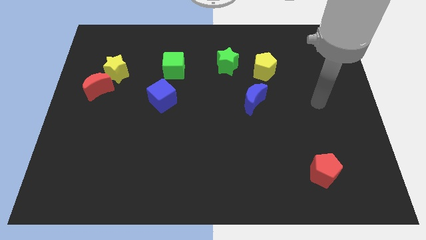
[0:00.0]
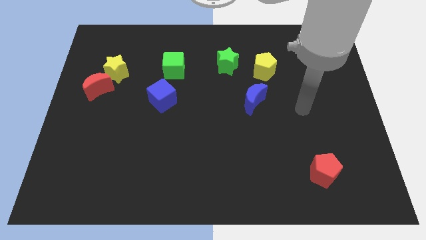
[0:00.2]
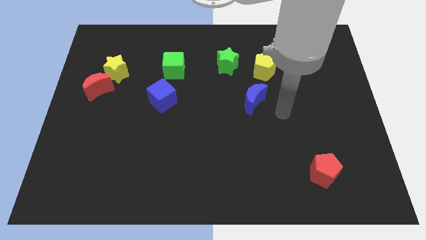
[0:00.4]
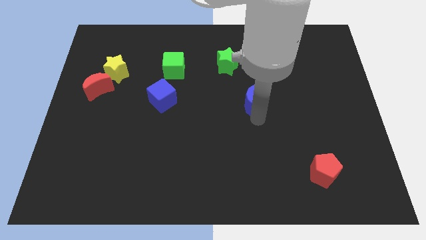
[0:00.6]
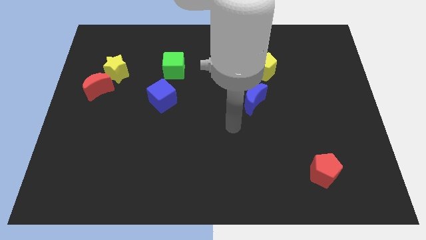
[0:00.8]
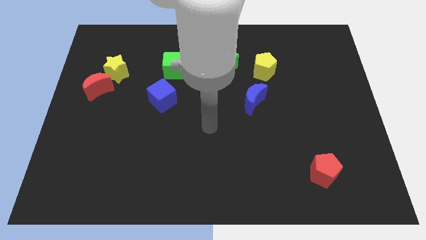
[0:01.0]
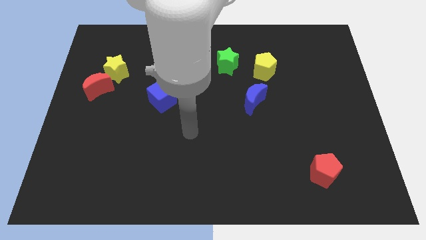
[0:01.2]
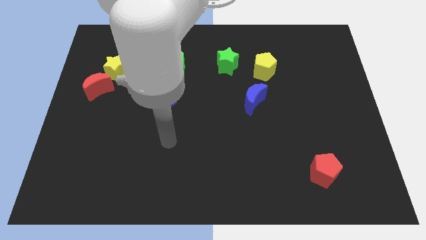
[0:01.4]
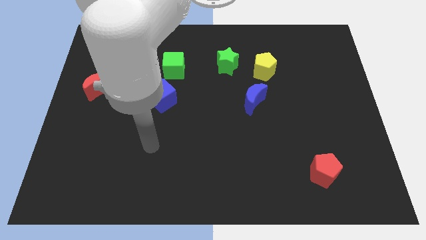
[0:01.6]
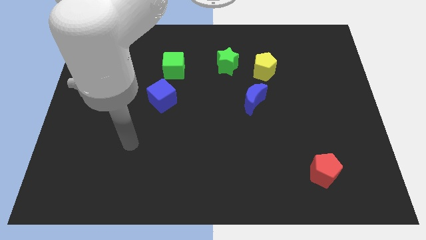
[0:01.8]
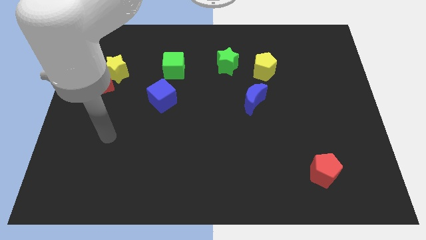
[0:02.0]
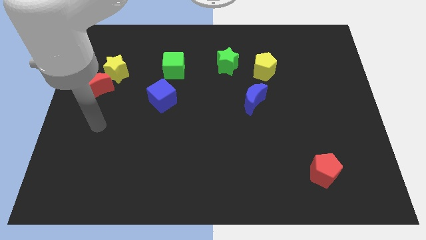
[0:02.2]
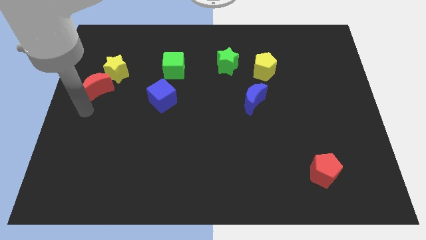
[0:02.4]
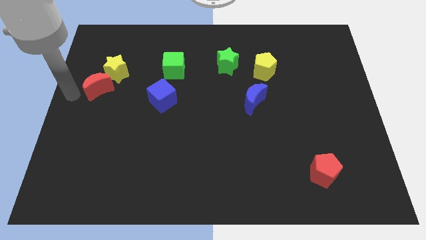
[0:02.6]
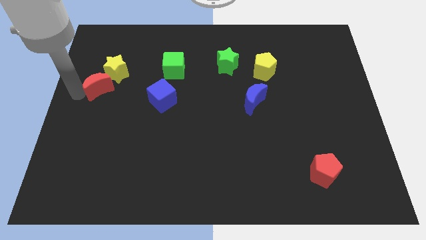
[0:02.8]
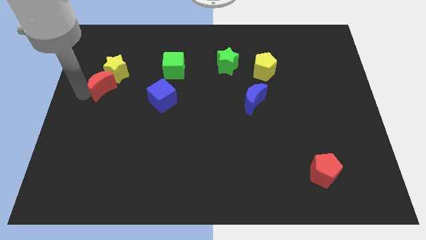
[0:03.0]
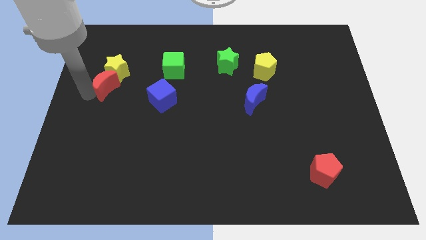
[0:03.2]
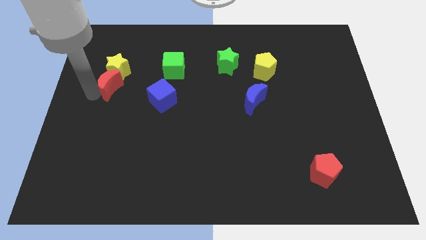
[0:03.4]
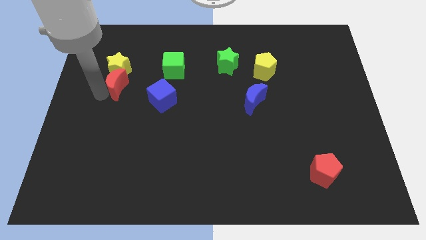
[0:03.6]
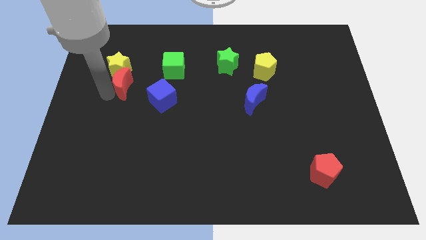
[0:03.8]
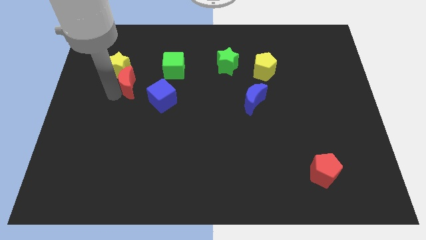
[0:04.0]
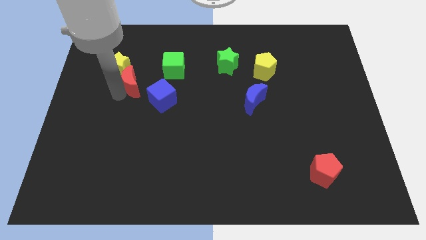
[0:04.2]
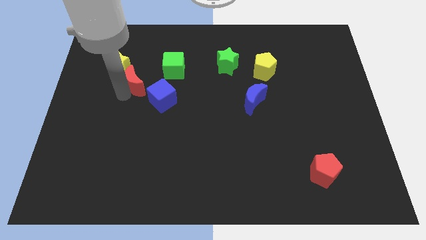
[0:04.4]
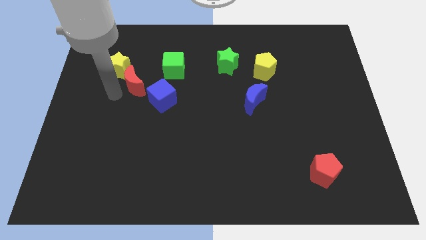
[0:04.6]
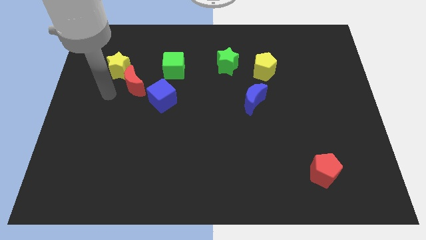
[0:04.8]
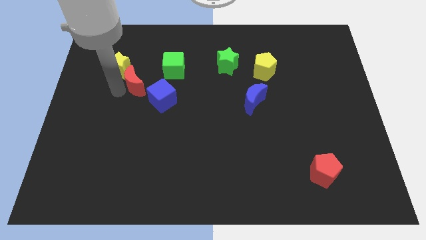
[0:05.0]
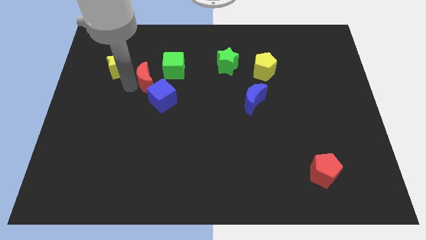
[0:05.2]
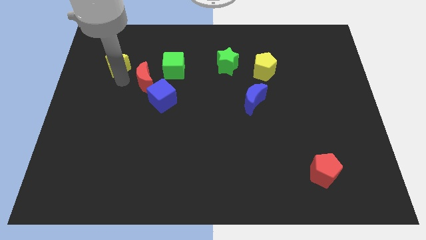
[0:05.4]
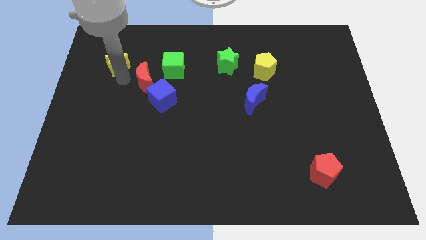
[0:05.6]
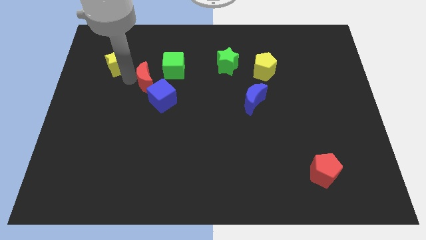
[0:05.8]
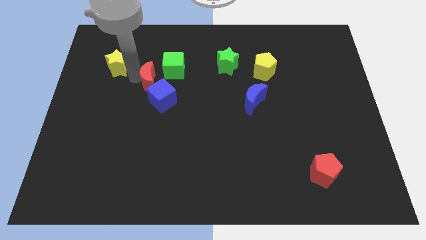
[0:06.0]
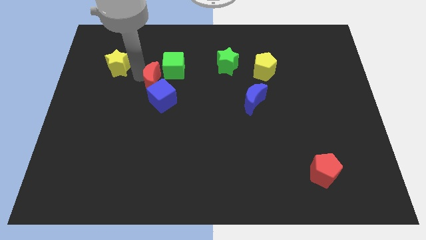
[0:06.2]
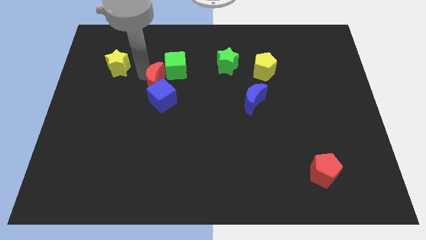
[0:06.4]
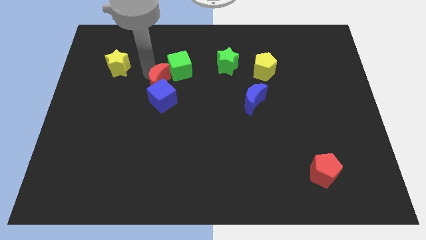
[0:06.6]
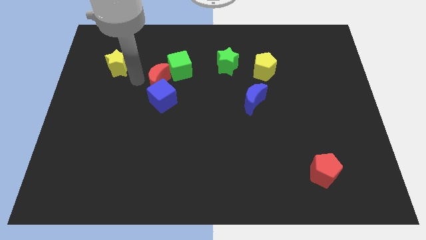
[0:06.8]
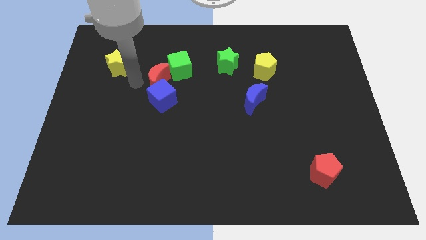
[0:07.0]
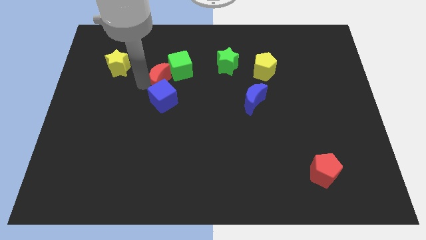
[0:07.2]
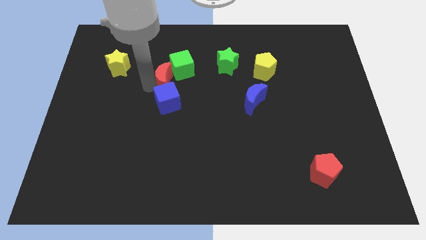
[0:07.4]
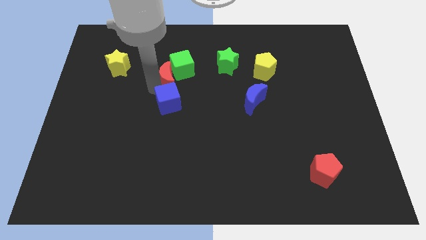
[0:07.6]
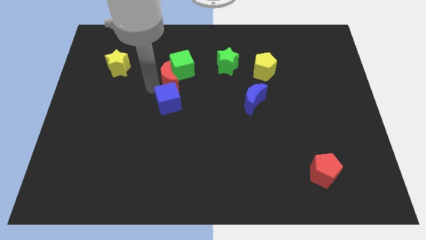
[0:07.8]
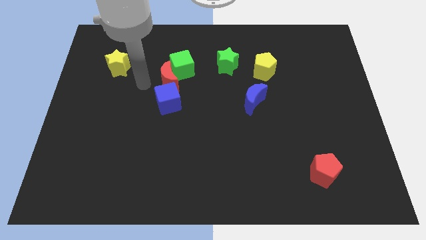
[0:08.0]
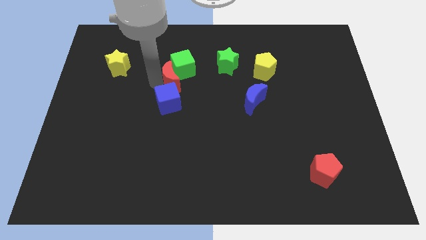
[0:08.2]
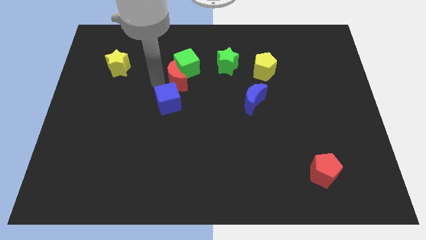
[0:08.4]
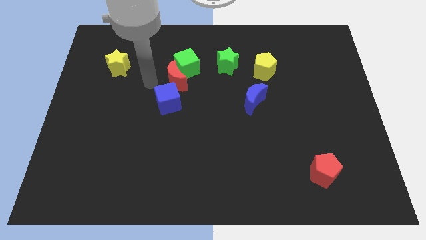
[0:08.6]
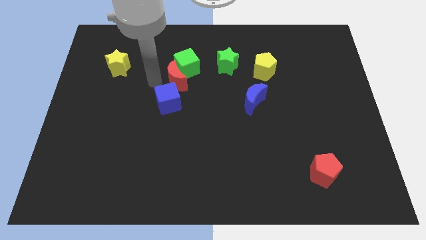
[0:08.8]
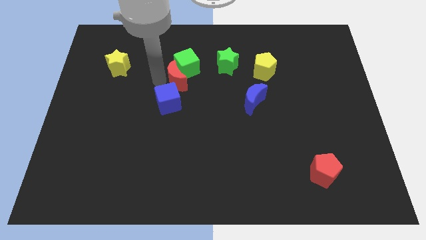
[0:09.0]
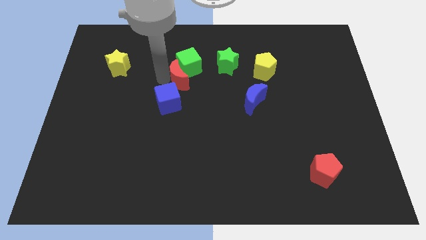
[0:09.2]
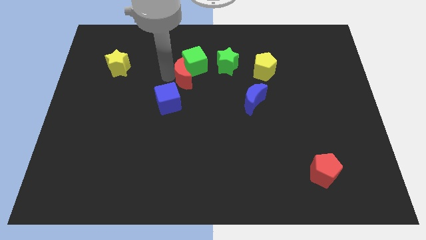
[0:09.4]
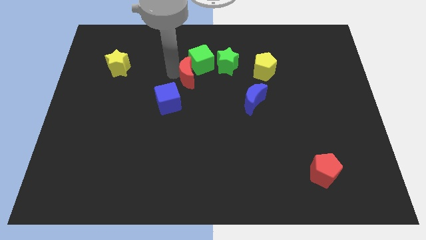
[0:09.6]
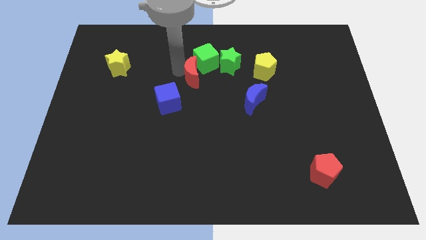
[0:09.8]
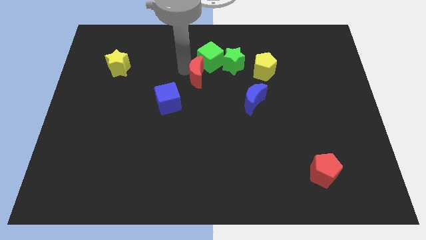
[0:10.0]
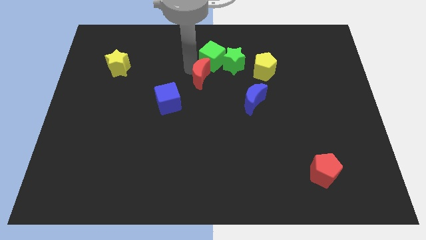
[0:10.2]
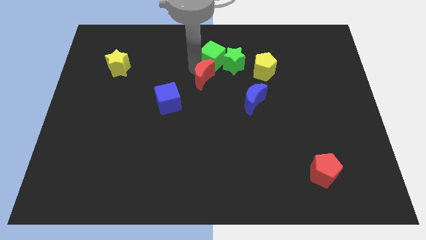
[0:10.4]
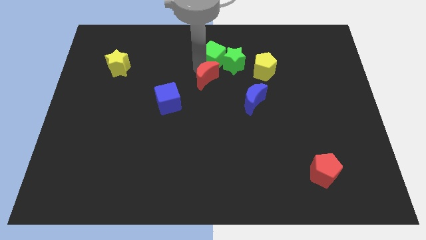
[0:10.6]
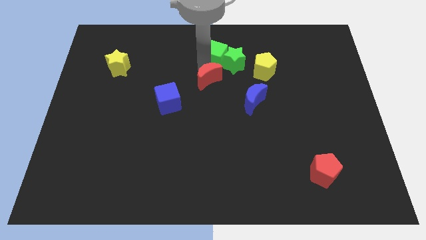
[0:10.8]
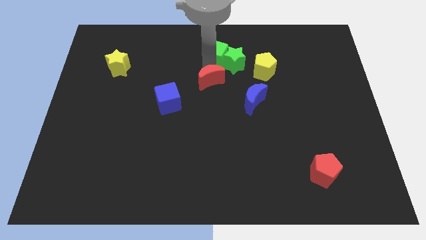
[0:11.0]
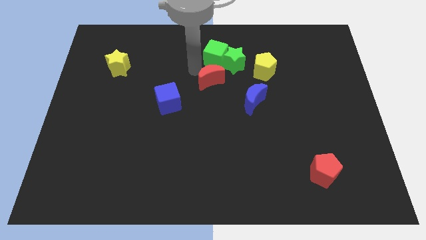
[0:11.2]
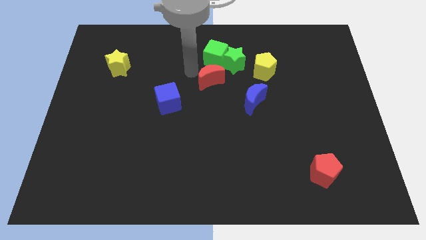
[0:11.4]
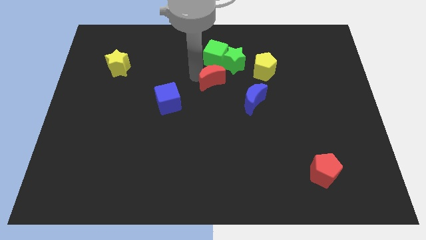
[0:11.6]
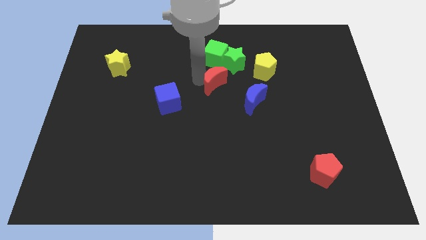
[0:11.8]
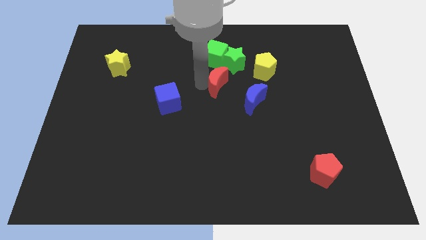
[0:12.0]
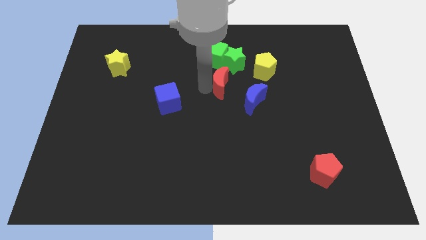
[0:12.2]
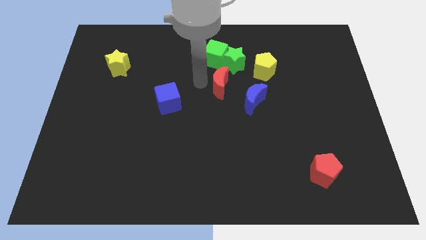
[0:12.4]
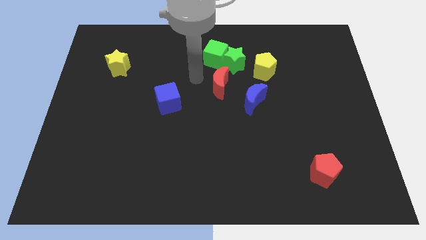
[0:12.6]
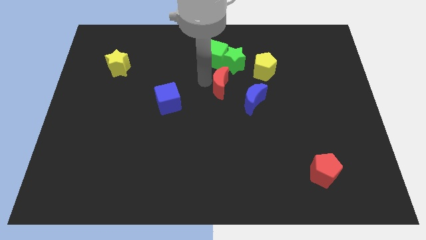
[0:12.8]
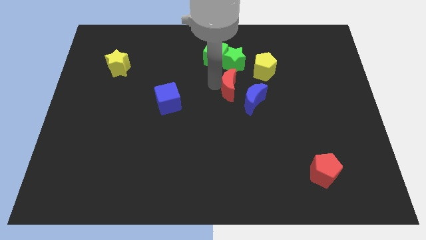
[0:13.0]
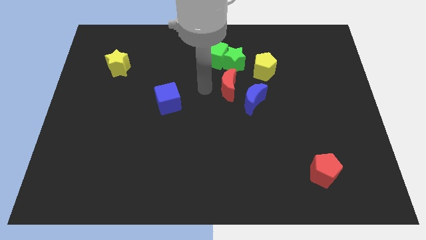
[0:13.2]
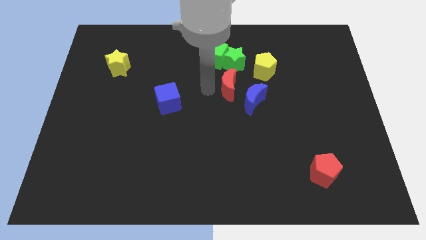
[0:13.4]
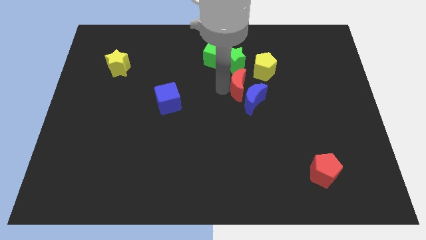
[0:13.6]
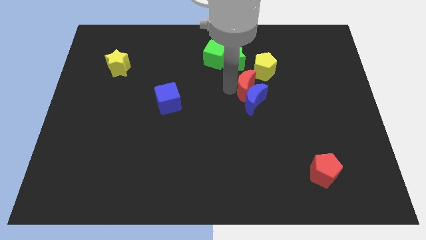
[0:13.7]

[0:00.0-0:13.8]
push the red moon to the top right side of the blue moon
